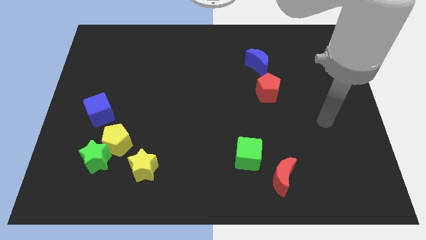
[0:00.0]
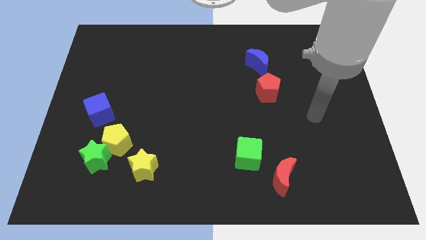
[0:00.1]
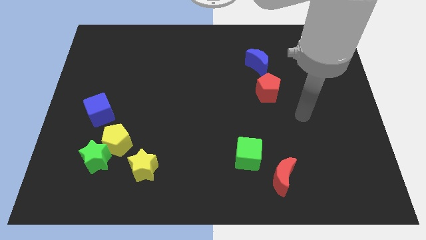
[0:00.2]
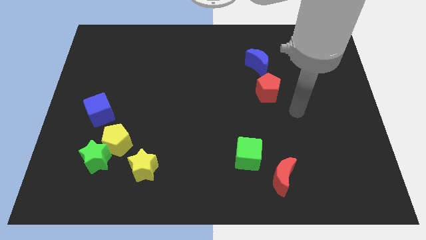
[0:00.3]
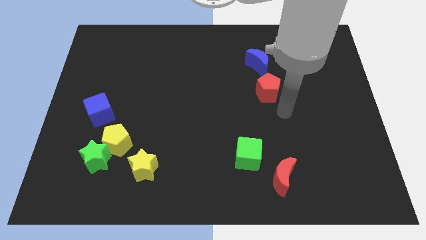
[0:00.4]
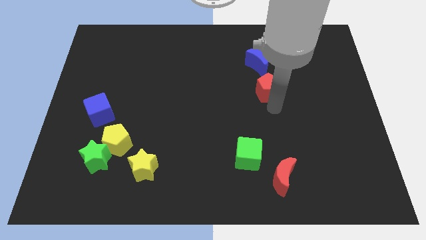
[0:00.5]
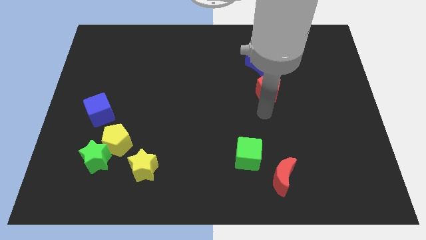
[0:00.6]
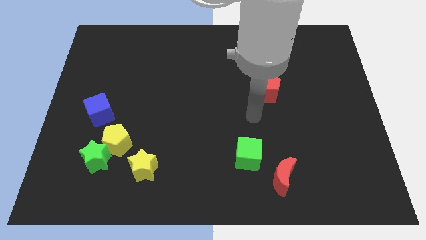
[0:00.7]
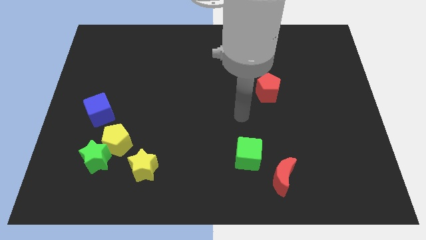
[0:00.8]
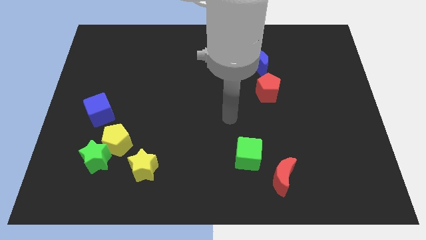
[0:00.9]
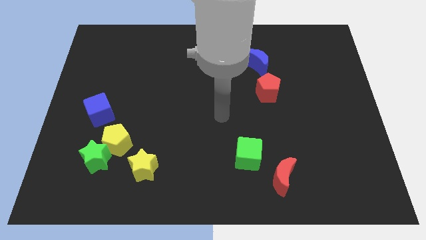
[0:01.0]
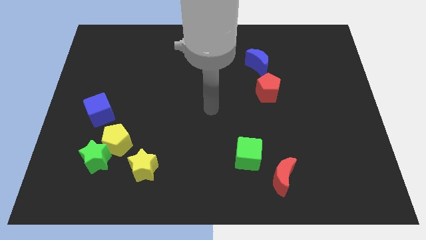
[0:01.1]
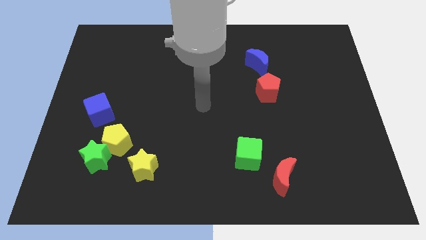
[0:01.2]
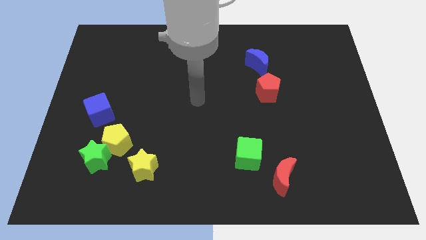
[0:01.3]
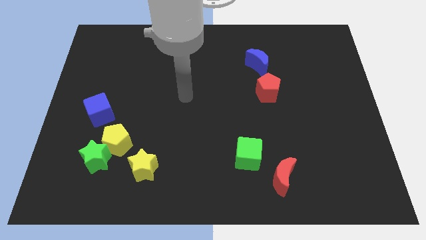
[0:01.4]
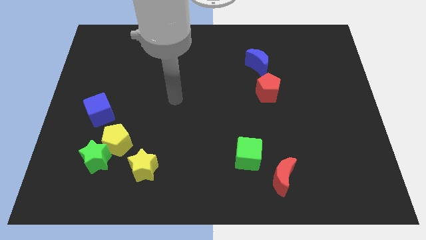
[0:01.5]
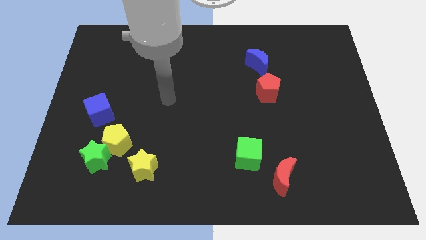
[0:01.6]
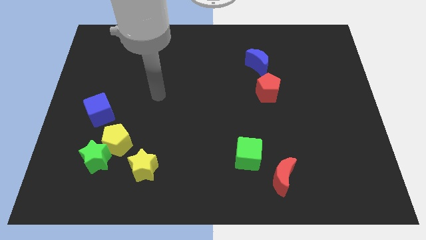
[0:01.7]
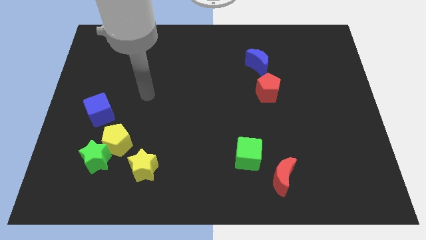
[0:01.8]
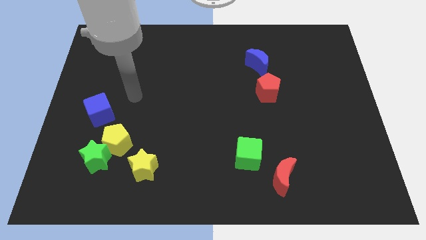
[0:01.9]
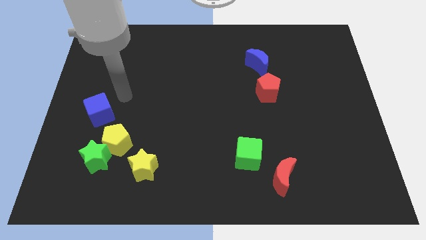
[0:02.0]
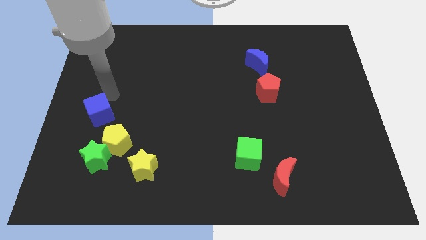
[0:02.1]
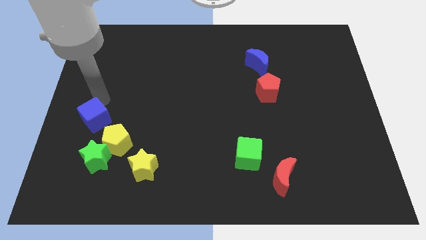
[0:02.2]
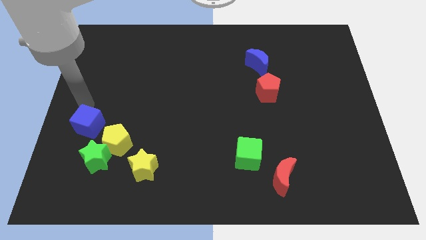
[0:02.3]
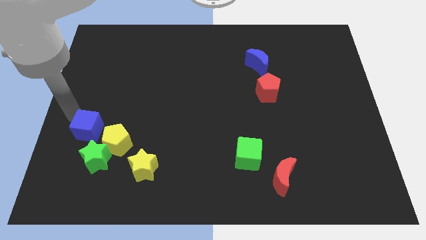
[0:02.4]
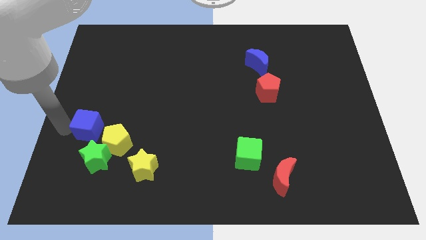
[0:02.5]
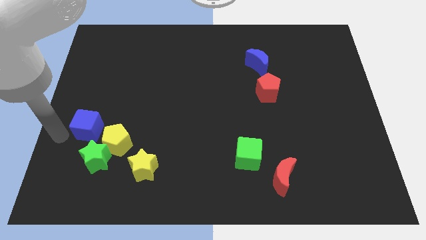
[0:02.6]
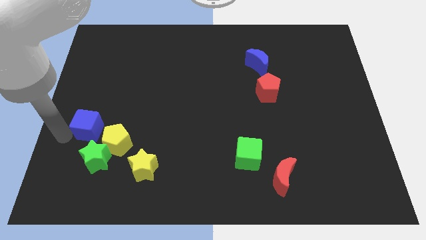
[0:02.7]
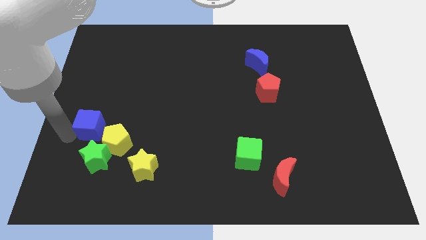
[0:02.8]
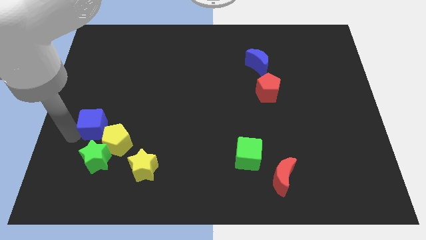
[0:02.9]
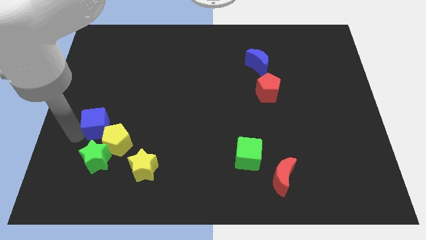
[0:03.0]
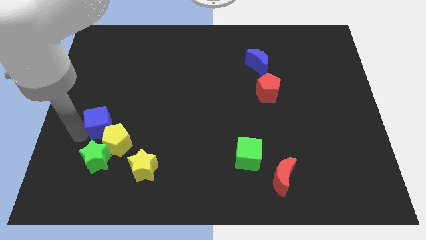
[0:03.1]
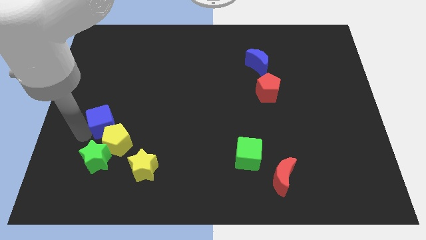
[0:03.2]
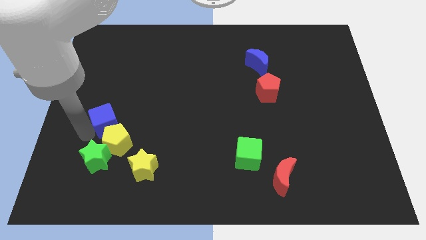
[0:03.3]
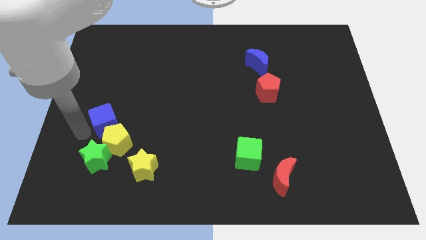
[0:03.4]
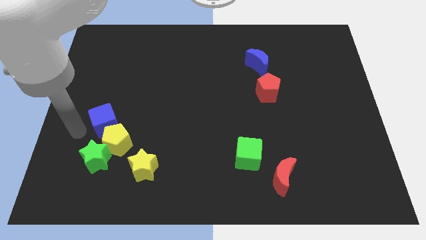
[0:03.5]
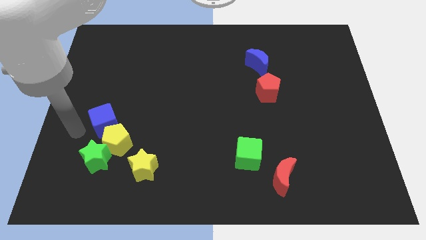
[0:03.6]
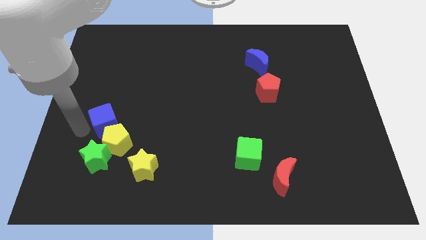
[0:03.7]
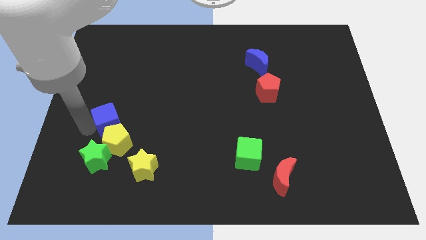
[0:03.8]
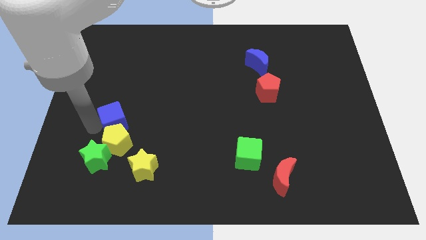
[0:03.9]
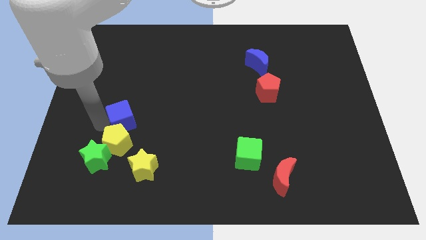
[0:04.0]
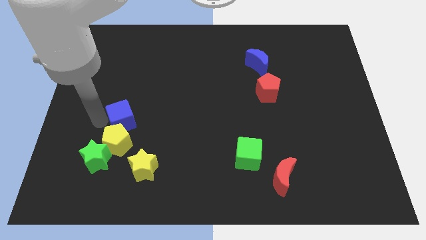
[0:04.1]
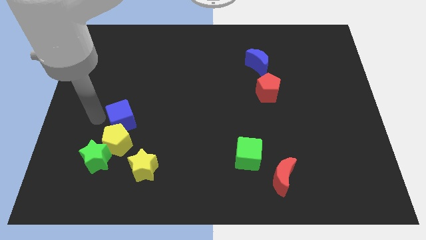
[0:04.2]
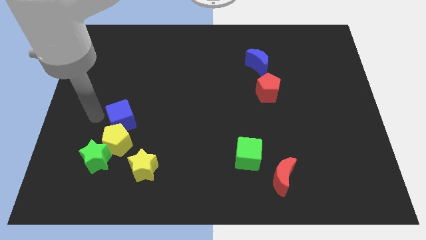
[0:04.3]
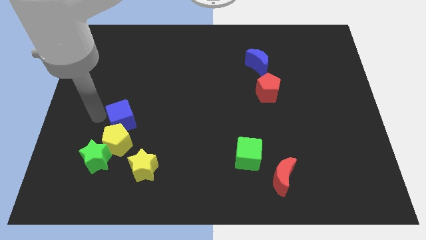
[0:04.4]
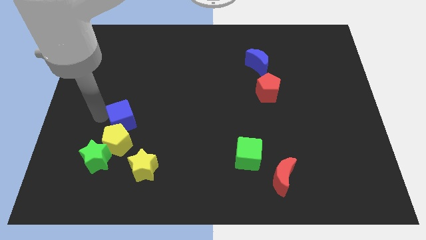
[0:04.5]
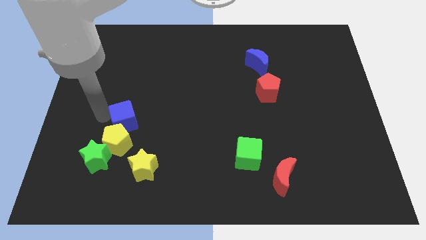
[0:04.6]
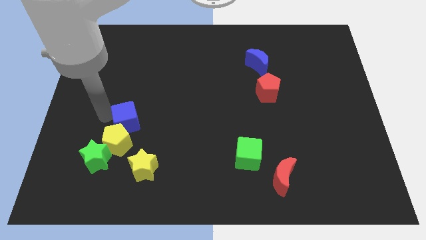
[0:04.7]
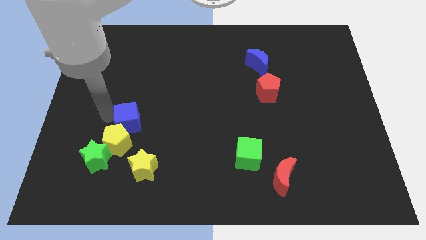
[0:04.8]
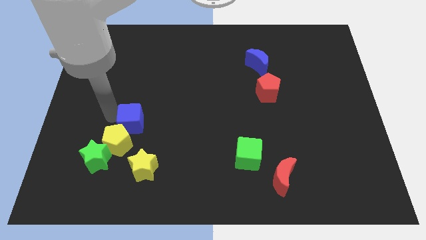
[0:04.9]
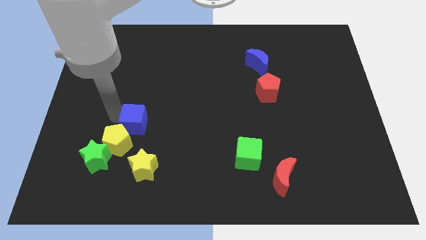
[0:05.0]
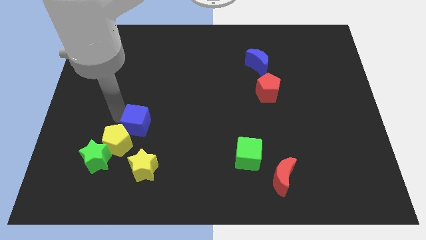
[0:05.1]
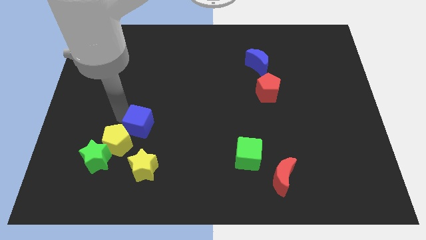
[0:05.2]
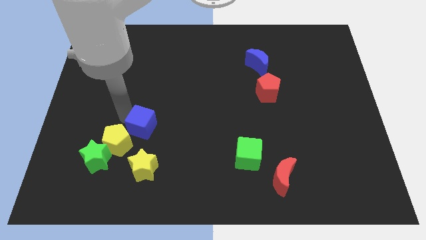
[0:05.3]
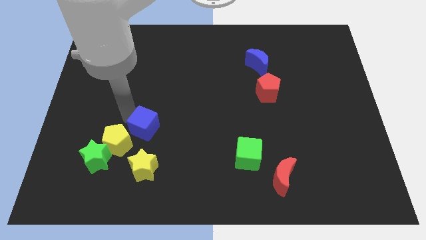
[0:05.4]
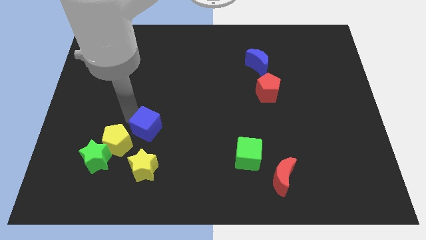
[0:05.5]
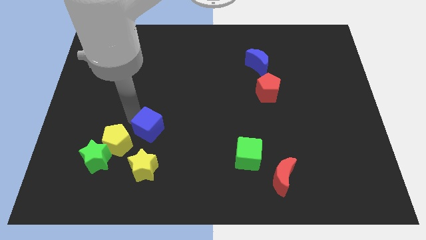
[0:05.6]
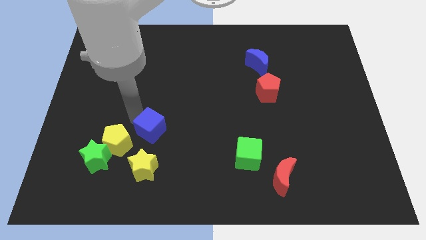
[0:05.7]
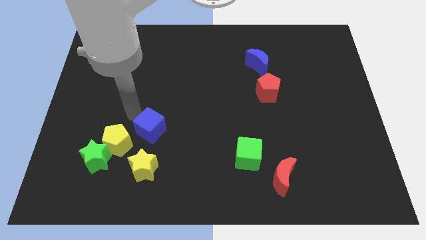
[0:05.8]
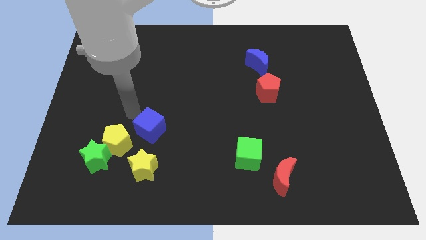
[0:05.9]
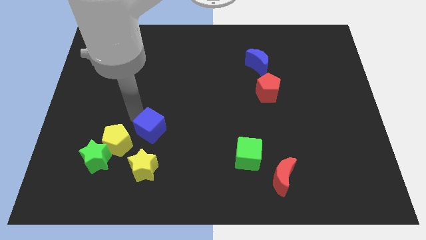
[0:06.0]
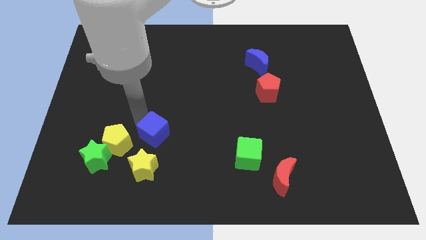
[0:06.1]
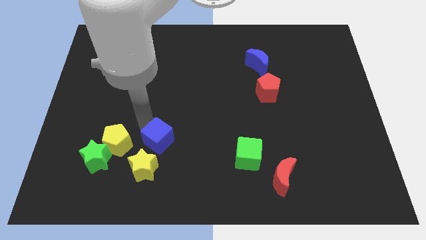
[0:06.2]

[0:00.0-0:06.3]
move the blue cube to the top right of the yellow star

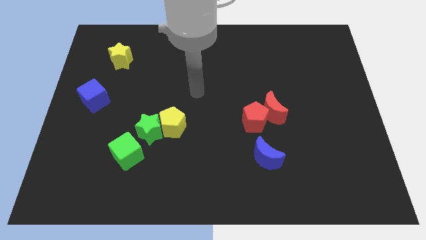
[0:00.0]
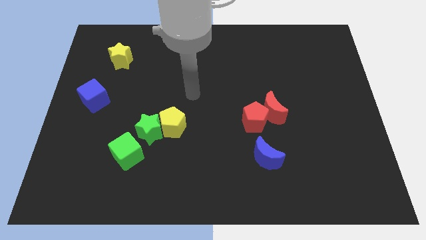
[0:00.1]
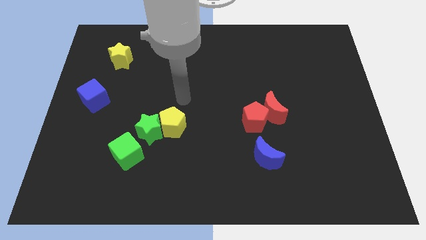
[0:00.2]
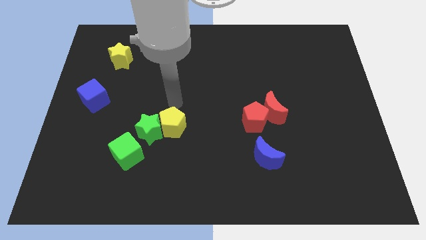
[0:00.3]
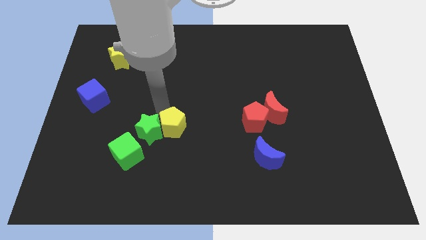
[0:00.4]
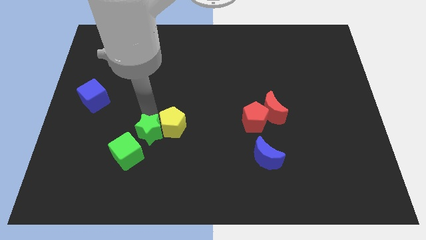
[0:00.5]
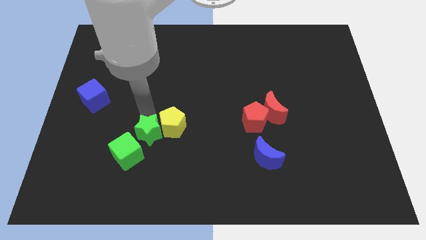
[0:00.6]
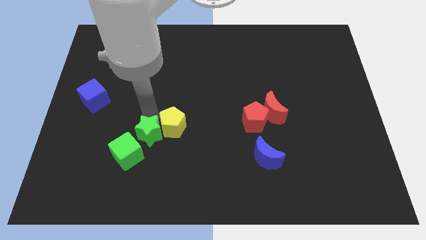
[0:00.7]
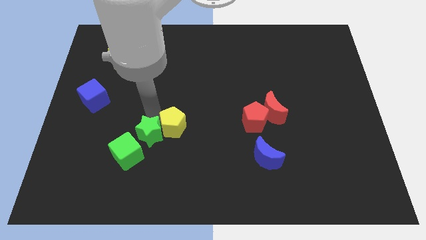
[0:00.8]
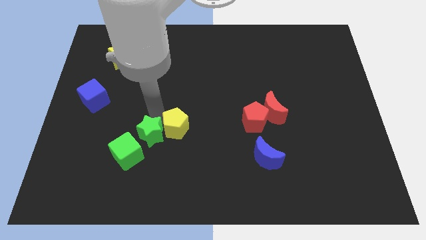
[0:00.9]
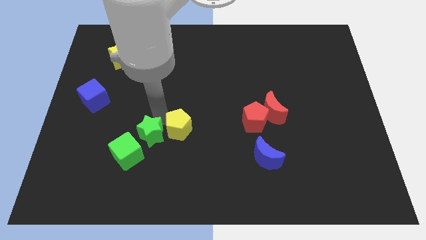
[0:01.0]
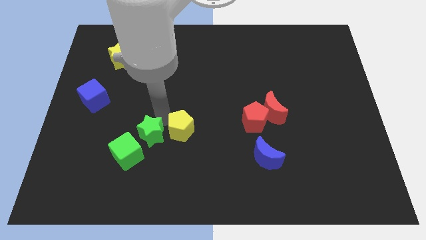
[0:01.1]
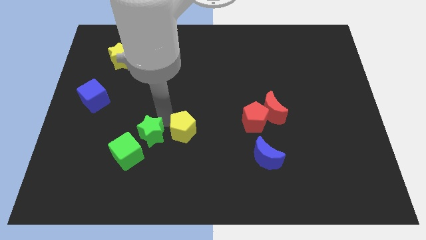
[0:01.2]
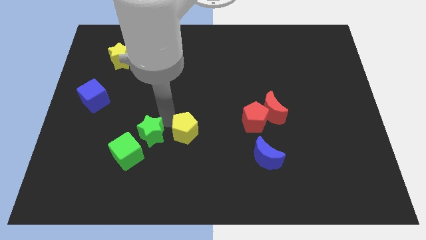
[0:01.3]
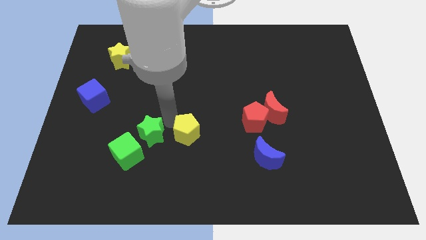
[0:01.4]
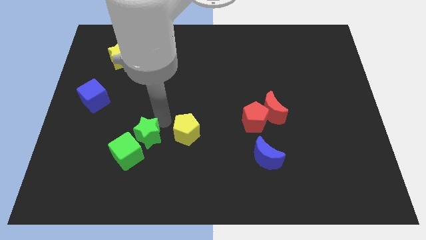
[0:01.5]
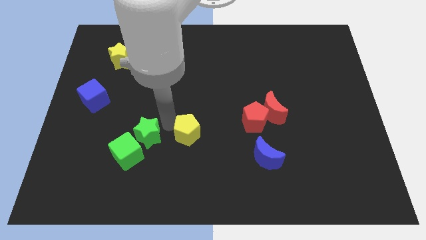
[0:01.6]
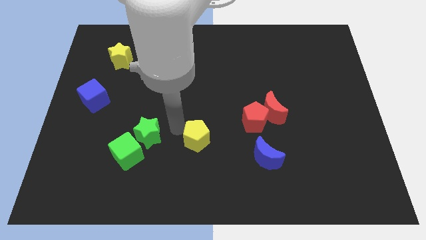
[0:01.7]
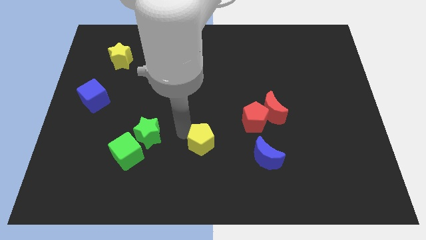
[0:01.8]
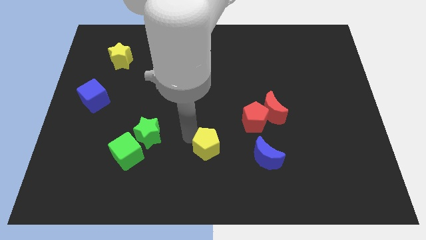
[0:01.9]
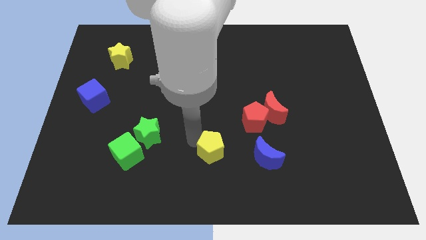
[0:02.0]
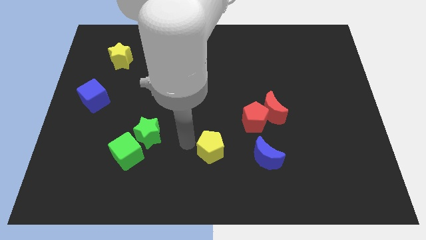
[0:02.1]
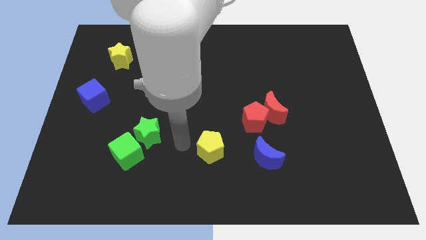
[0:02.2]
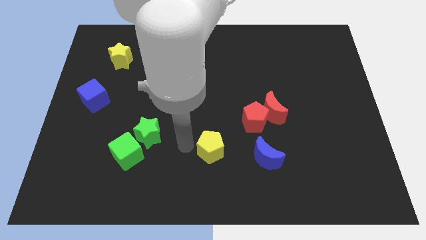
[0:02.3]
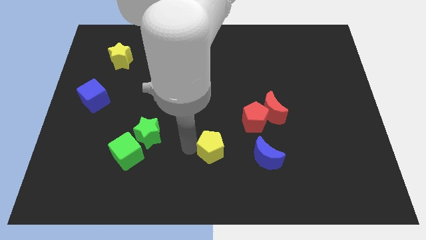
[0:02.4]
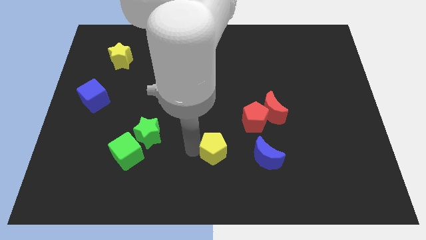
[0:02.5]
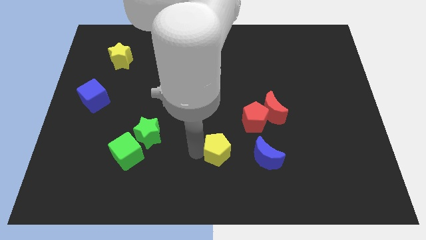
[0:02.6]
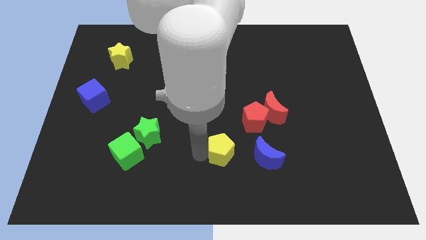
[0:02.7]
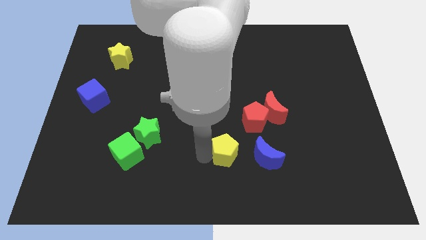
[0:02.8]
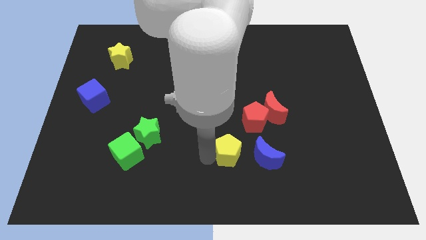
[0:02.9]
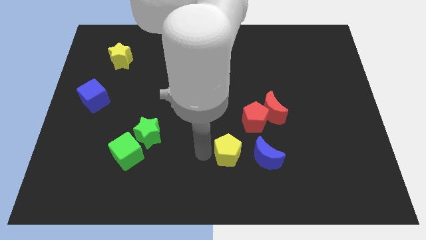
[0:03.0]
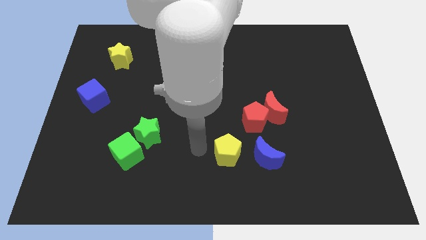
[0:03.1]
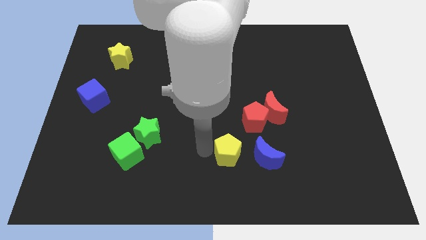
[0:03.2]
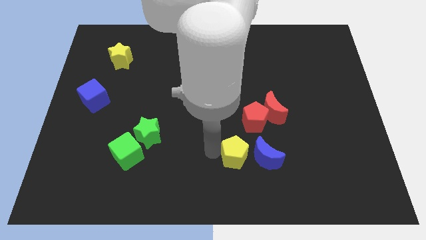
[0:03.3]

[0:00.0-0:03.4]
move the yellow pentagon to the bottom of the red pentagon
